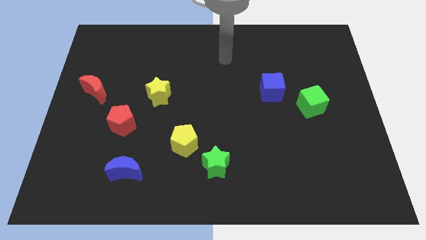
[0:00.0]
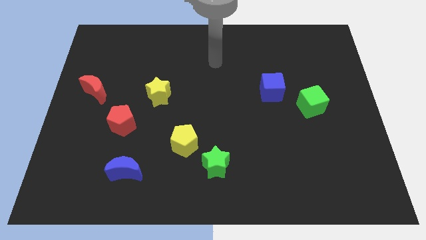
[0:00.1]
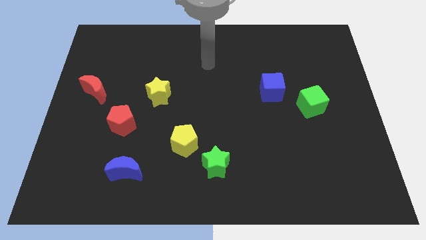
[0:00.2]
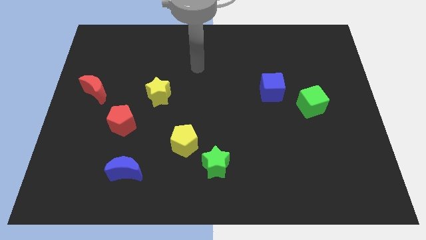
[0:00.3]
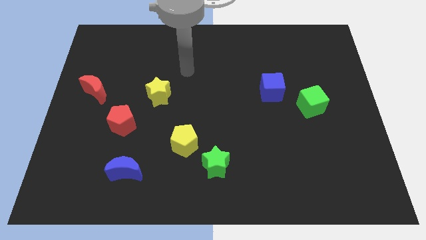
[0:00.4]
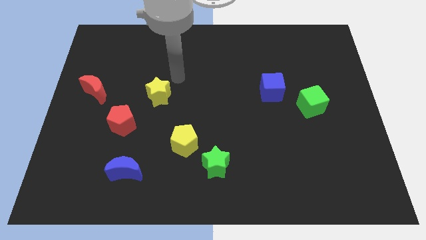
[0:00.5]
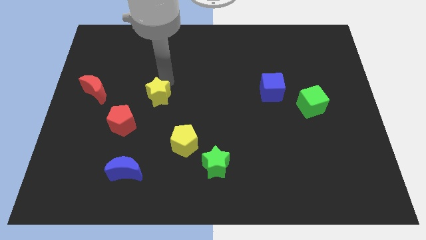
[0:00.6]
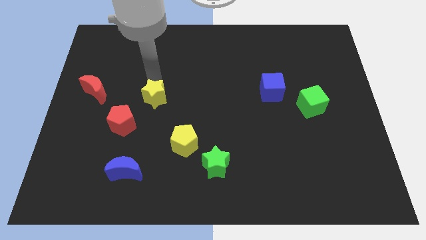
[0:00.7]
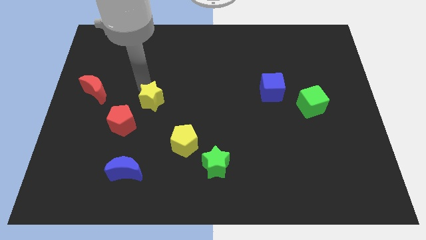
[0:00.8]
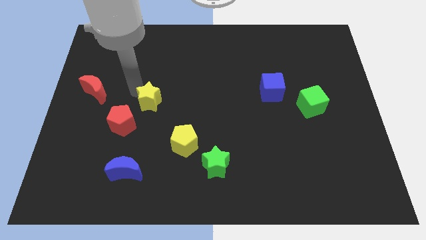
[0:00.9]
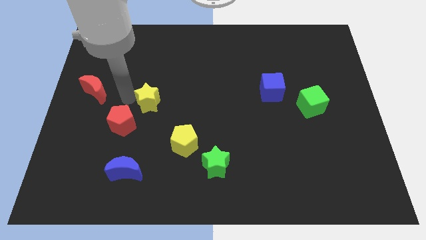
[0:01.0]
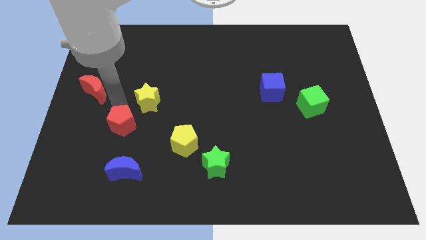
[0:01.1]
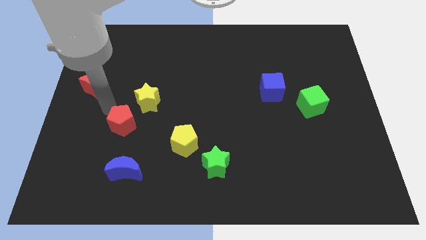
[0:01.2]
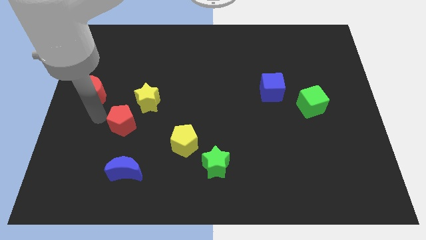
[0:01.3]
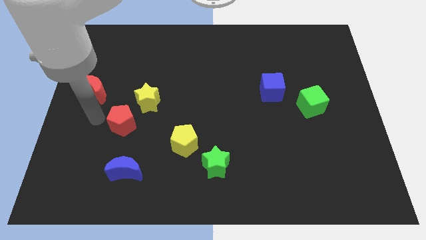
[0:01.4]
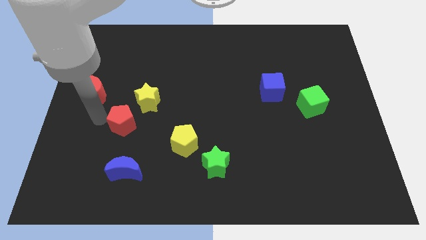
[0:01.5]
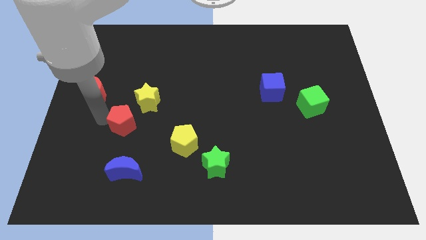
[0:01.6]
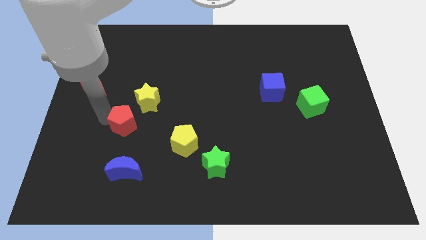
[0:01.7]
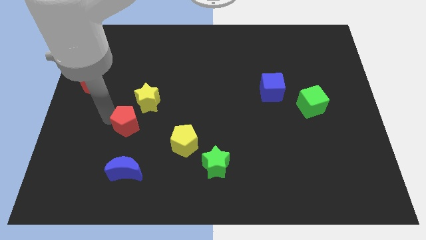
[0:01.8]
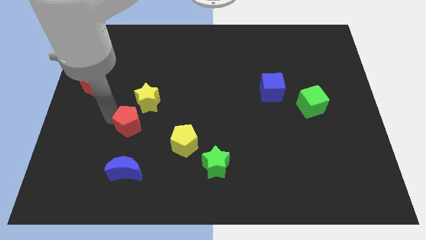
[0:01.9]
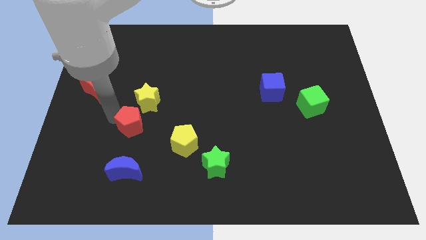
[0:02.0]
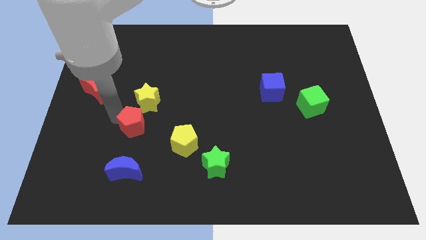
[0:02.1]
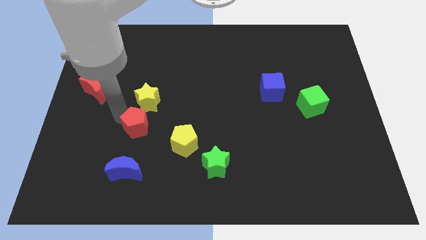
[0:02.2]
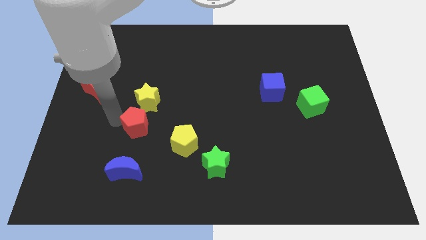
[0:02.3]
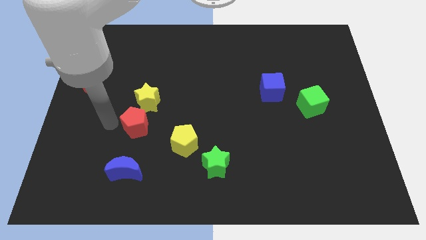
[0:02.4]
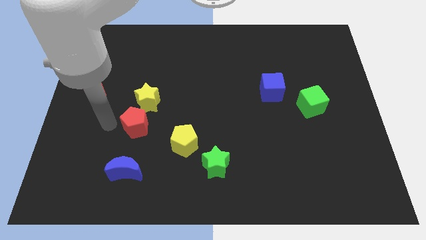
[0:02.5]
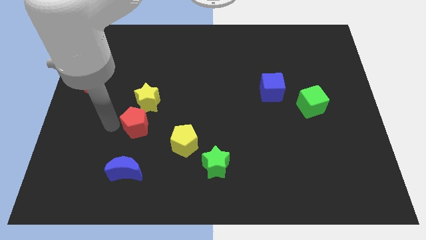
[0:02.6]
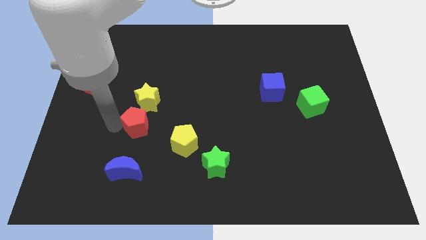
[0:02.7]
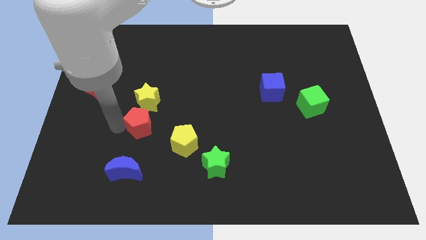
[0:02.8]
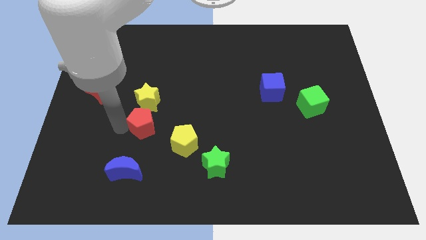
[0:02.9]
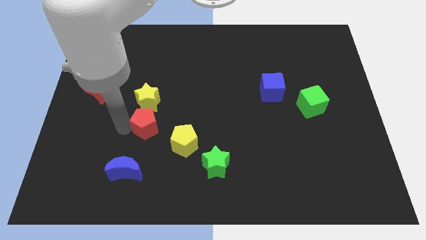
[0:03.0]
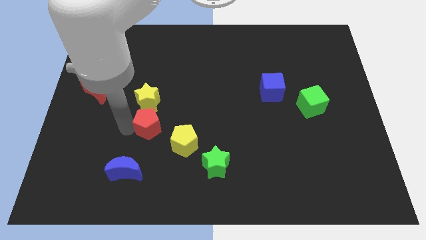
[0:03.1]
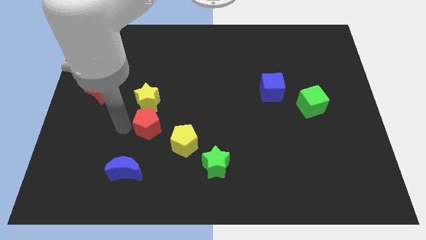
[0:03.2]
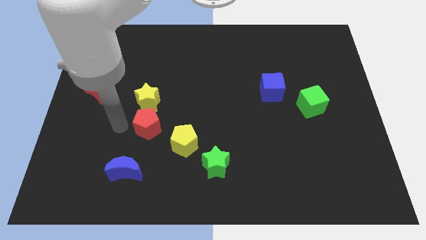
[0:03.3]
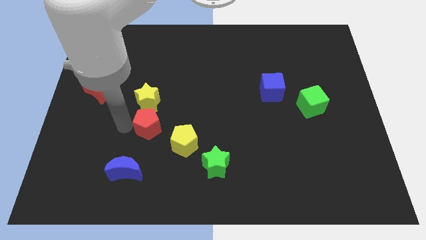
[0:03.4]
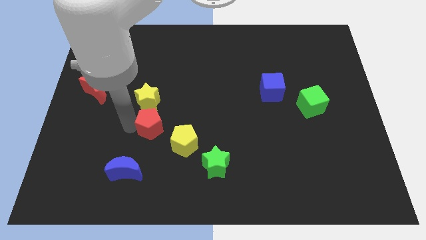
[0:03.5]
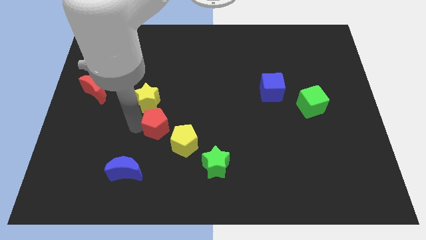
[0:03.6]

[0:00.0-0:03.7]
slightly move the red pentagon right

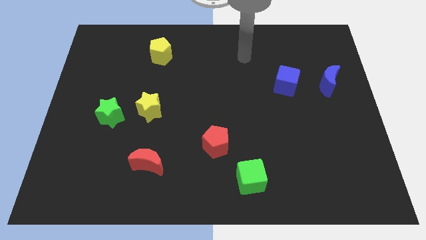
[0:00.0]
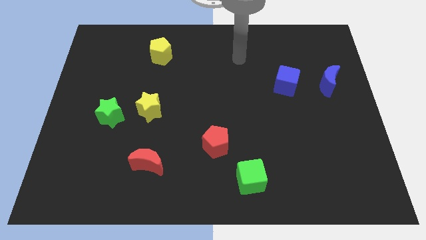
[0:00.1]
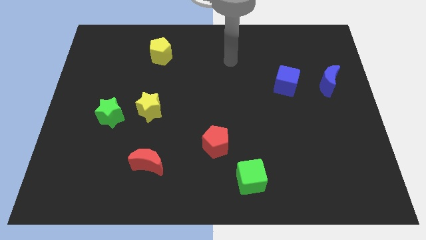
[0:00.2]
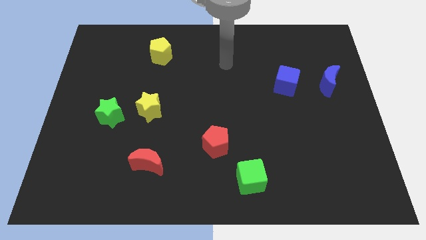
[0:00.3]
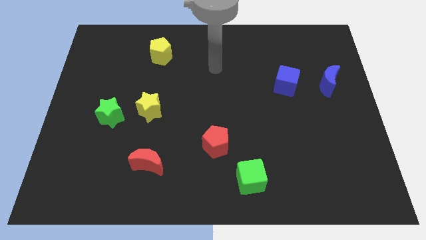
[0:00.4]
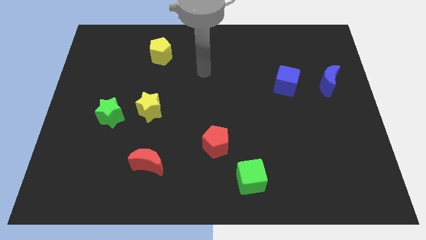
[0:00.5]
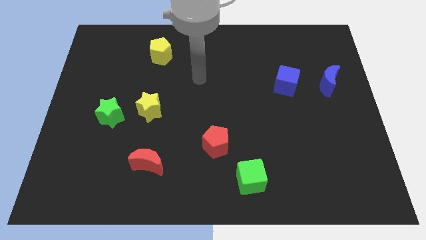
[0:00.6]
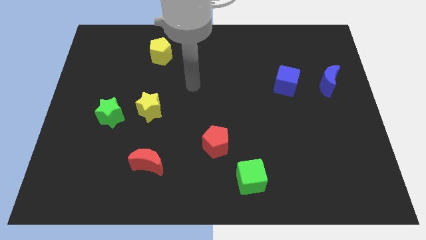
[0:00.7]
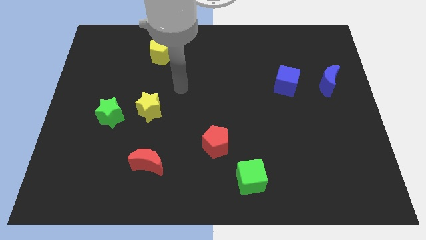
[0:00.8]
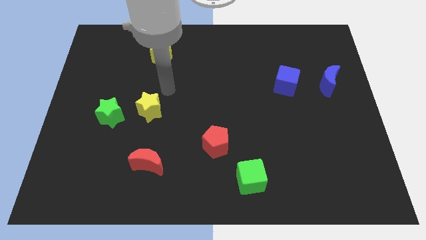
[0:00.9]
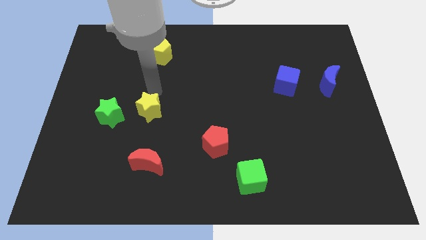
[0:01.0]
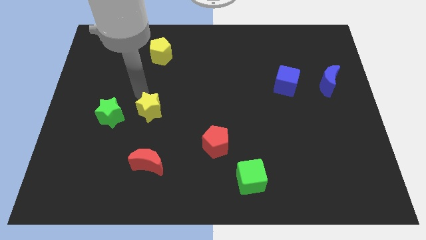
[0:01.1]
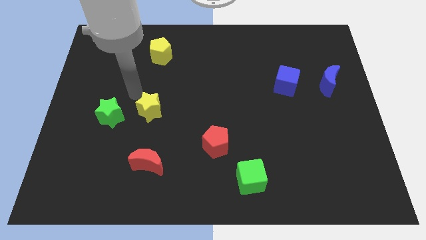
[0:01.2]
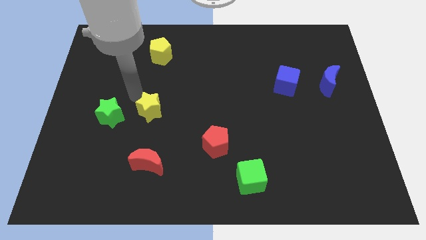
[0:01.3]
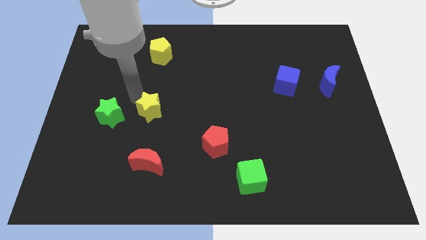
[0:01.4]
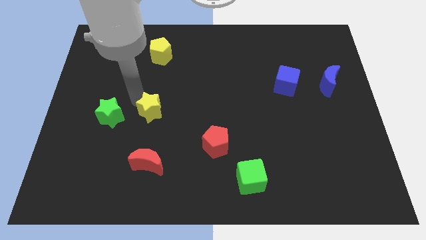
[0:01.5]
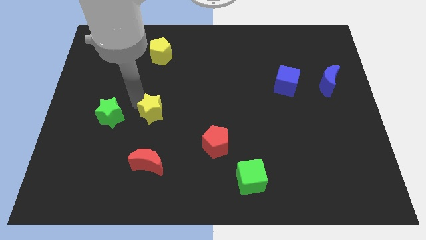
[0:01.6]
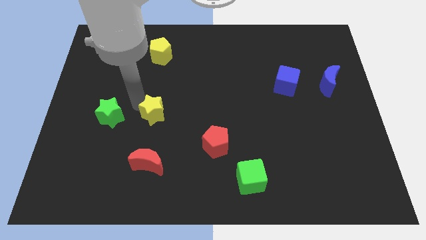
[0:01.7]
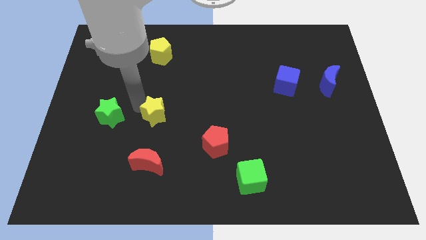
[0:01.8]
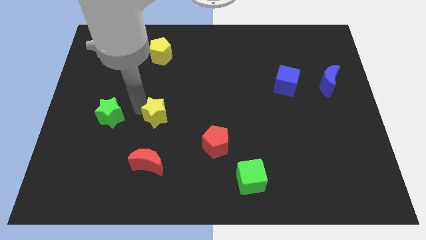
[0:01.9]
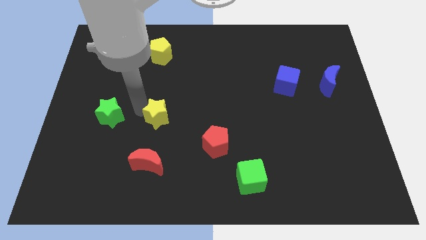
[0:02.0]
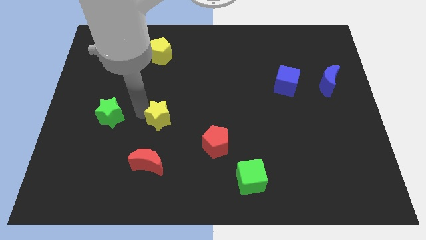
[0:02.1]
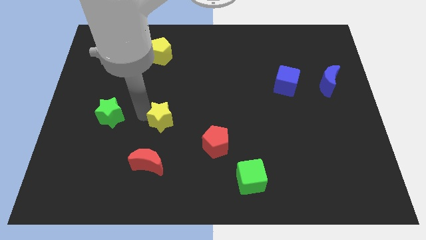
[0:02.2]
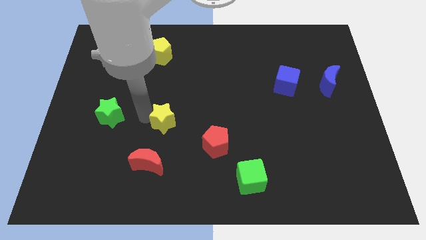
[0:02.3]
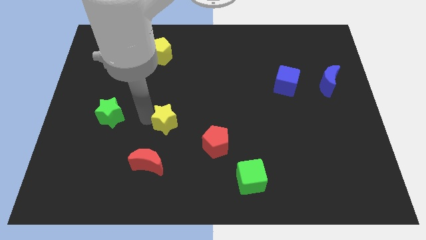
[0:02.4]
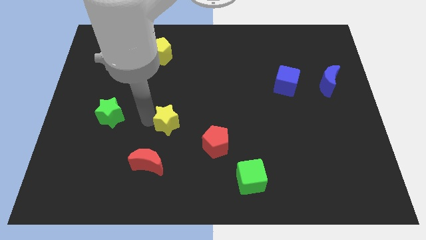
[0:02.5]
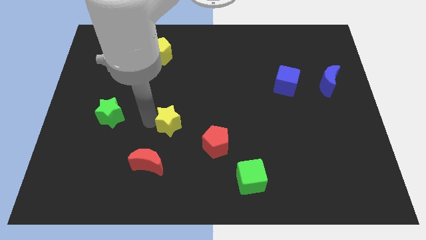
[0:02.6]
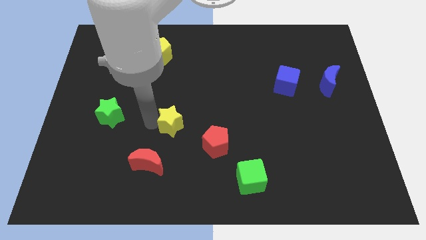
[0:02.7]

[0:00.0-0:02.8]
move the yellow star down and right diagonally a bit

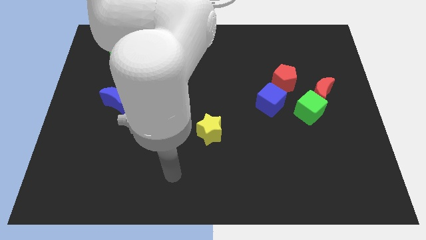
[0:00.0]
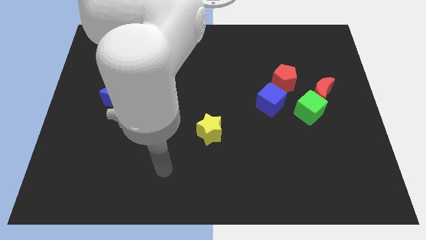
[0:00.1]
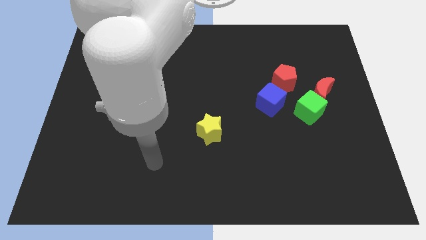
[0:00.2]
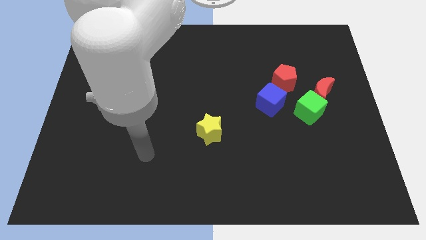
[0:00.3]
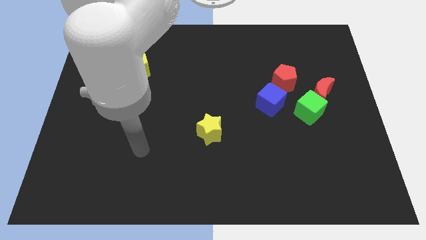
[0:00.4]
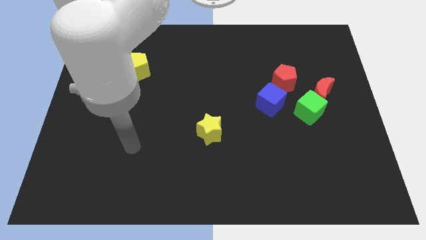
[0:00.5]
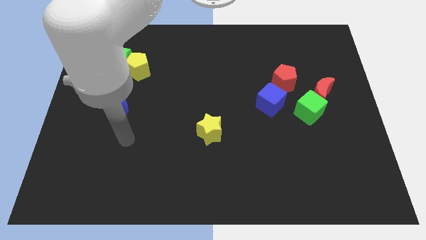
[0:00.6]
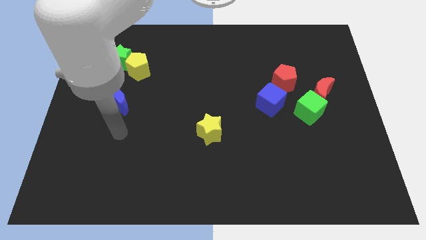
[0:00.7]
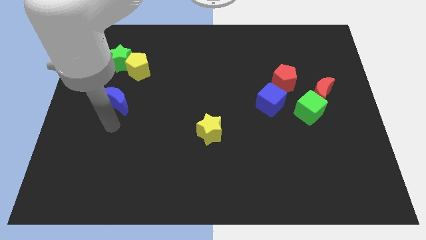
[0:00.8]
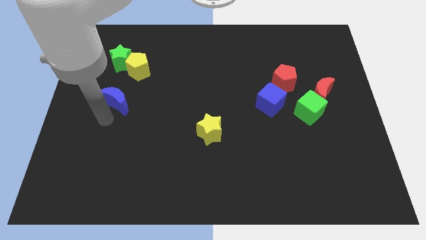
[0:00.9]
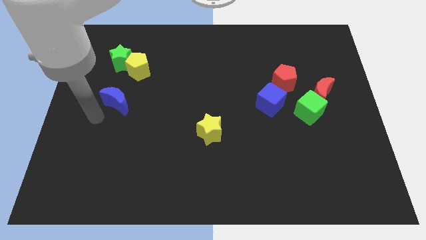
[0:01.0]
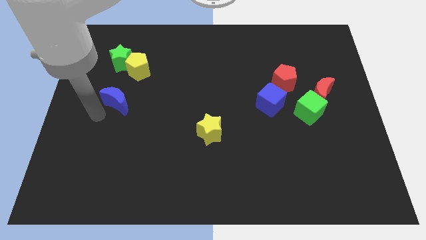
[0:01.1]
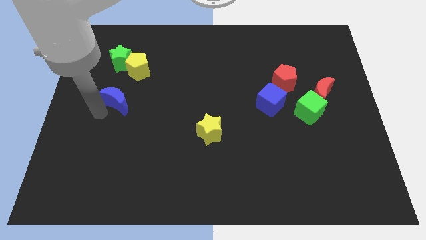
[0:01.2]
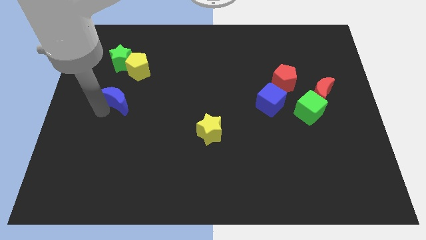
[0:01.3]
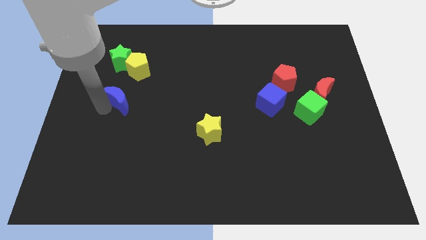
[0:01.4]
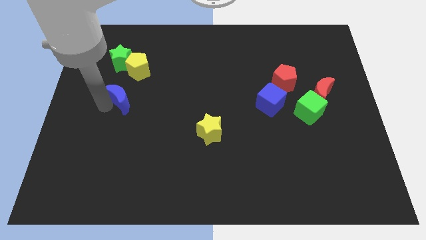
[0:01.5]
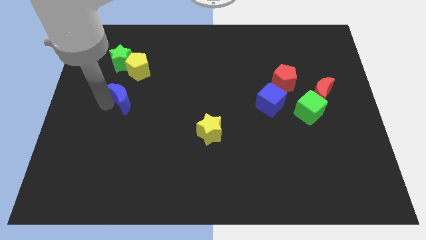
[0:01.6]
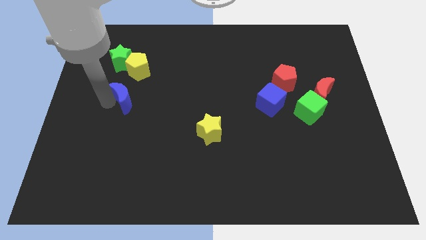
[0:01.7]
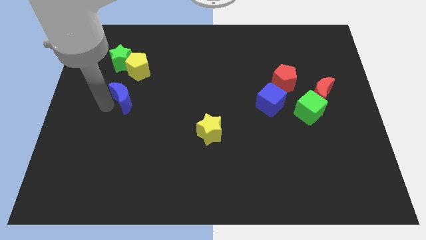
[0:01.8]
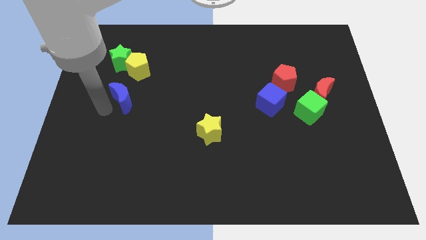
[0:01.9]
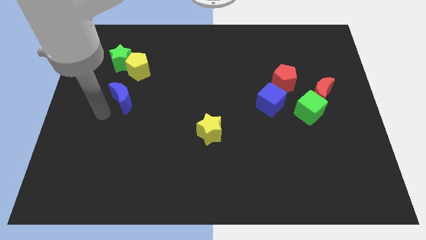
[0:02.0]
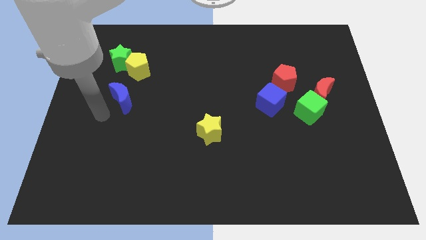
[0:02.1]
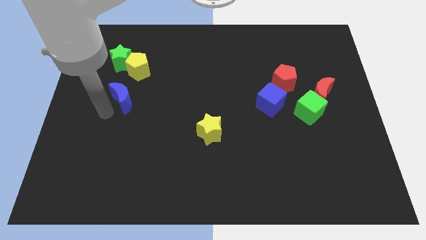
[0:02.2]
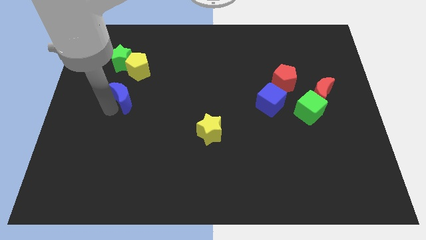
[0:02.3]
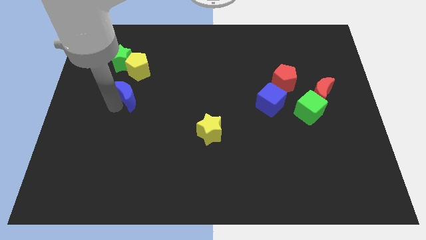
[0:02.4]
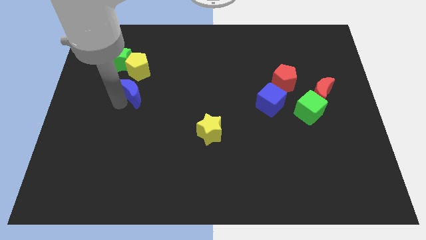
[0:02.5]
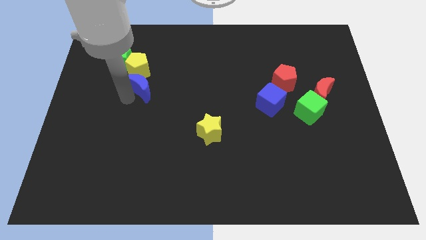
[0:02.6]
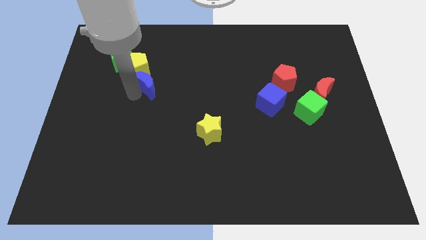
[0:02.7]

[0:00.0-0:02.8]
slightly move the blue moon upwards and to the right
